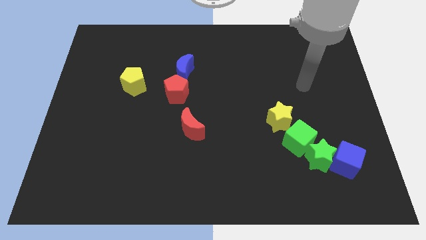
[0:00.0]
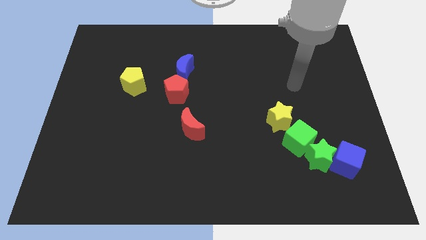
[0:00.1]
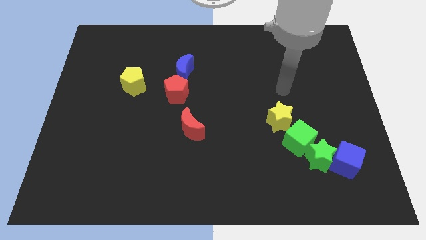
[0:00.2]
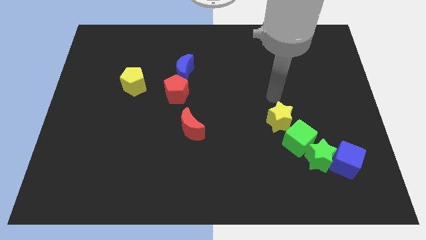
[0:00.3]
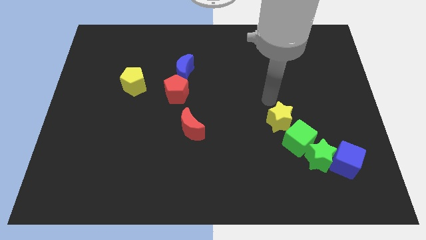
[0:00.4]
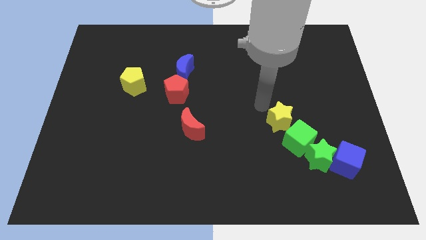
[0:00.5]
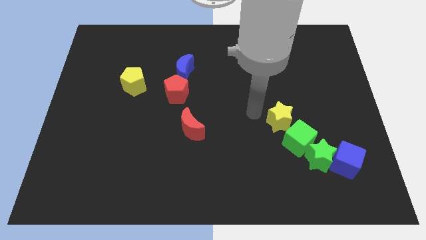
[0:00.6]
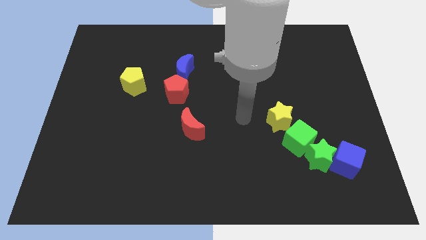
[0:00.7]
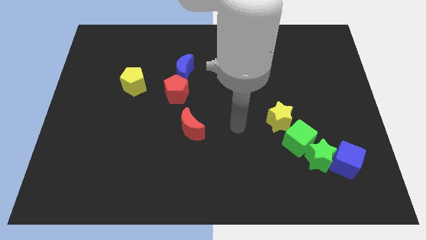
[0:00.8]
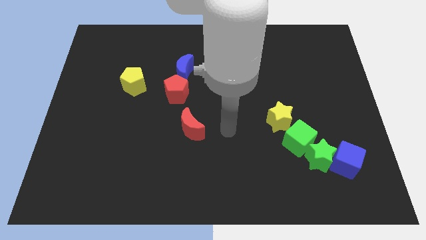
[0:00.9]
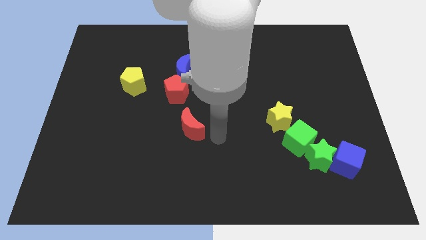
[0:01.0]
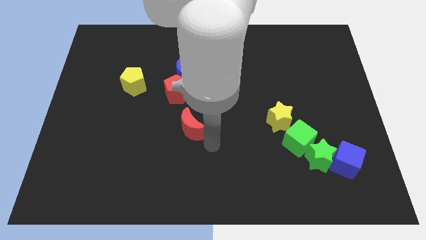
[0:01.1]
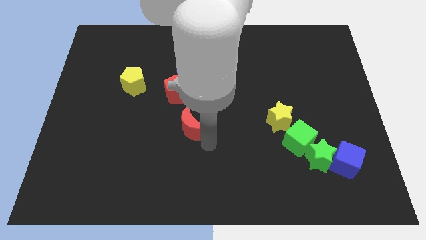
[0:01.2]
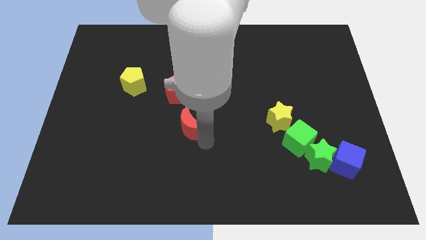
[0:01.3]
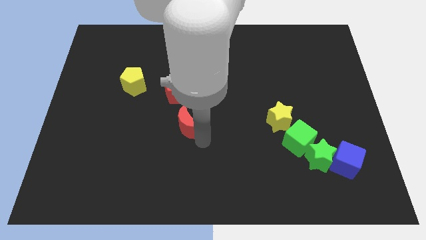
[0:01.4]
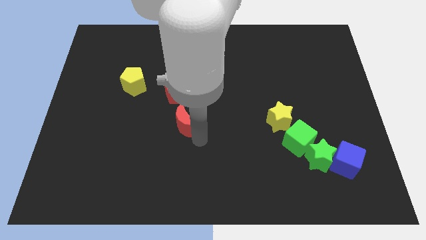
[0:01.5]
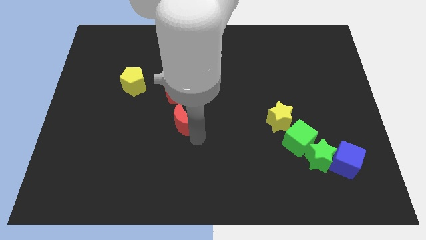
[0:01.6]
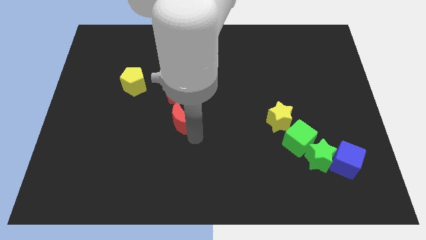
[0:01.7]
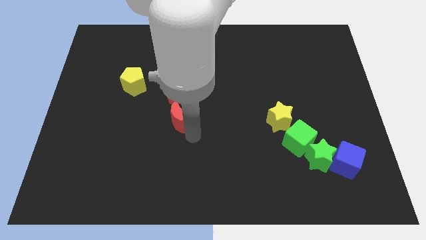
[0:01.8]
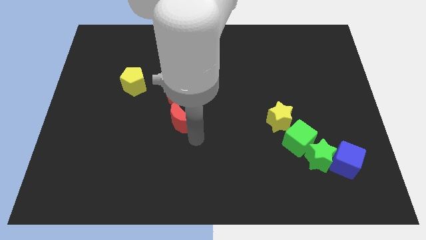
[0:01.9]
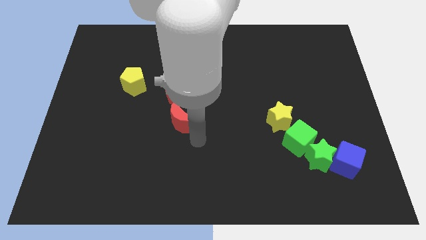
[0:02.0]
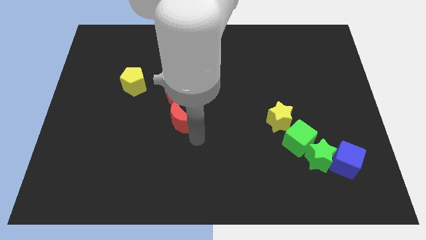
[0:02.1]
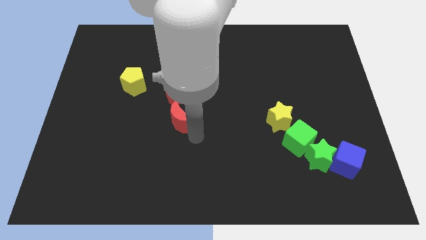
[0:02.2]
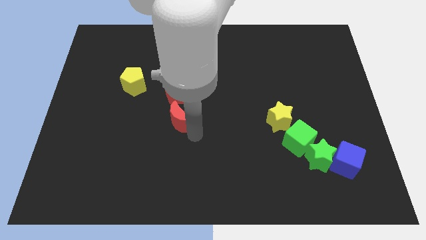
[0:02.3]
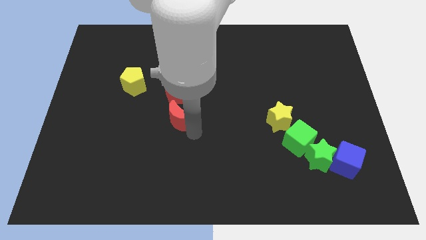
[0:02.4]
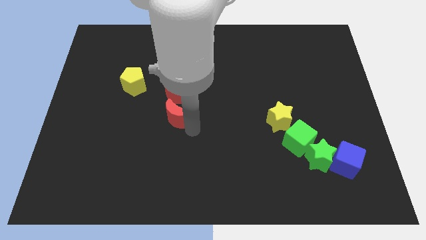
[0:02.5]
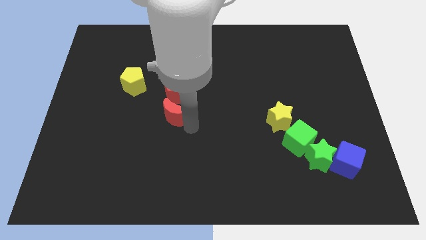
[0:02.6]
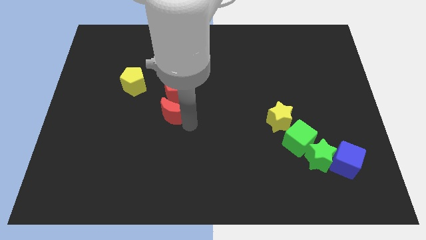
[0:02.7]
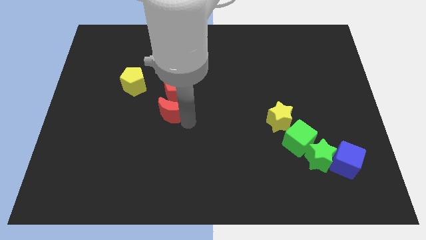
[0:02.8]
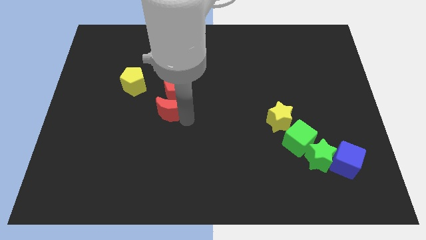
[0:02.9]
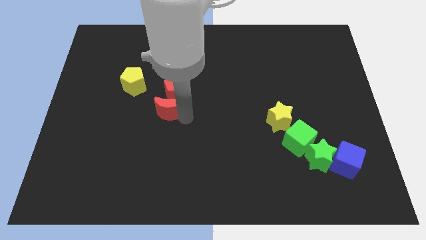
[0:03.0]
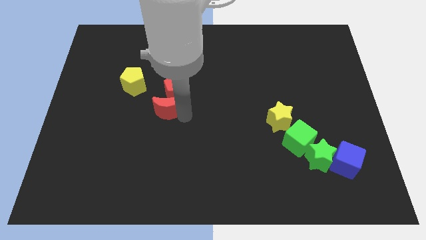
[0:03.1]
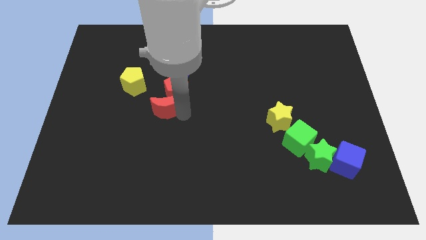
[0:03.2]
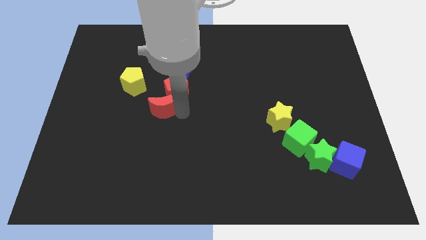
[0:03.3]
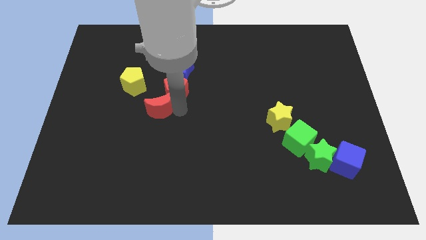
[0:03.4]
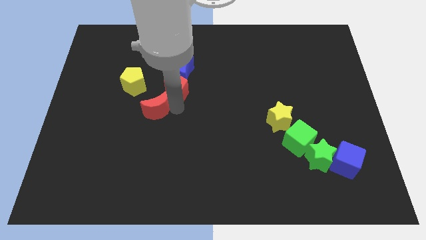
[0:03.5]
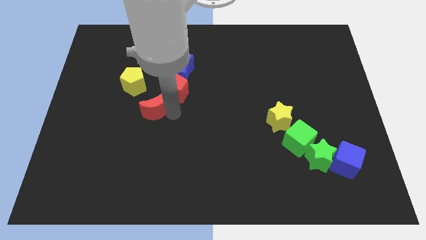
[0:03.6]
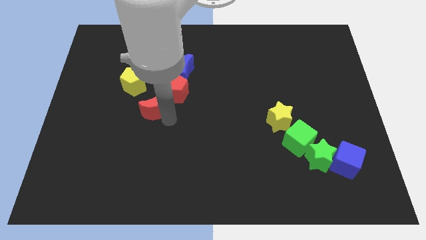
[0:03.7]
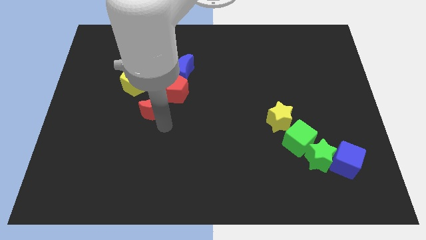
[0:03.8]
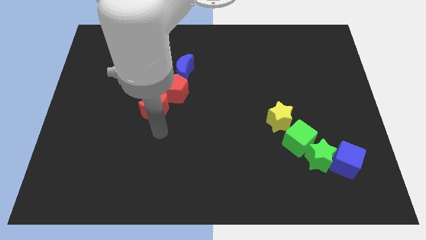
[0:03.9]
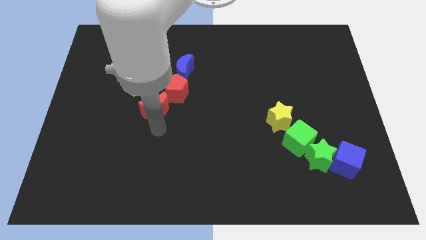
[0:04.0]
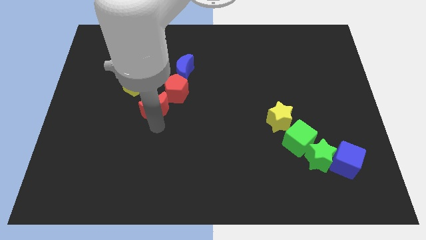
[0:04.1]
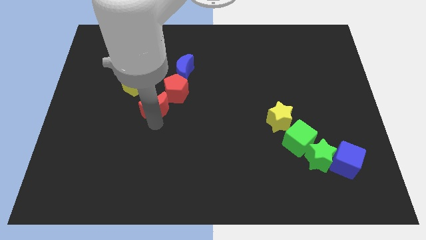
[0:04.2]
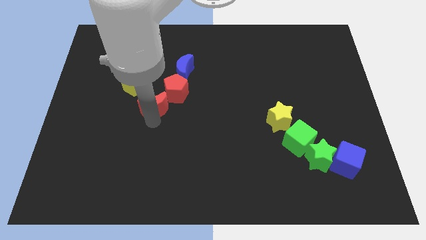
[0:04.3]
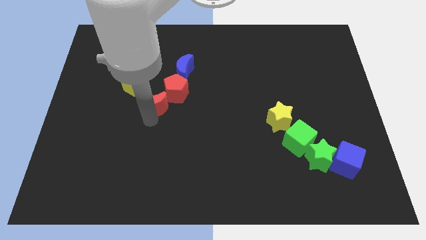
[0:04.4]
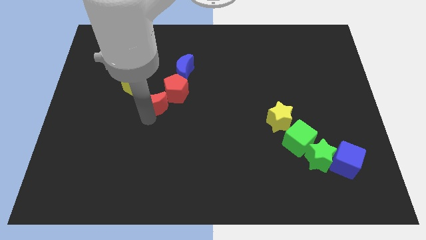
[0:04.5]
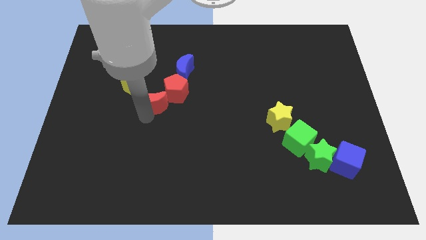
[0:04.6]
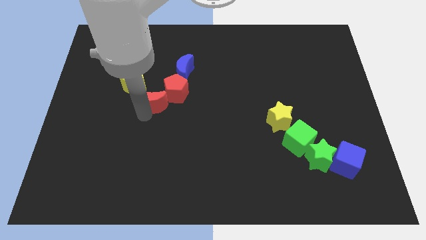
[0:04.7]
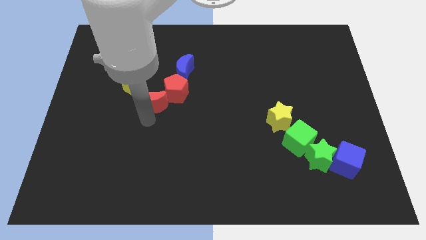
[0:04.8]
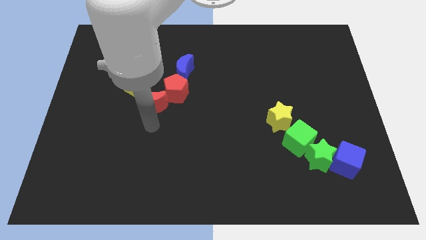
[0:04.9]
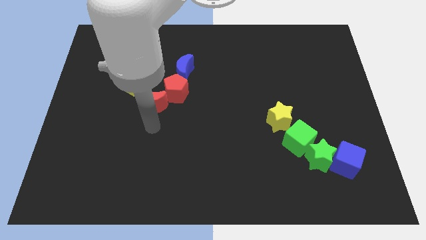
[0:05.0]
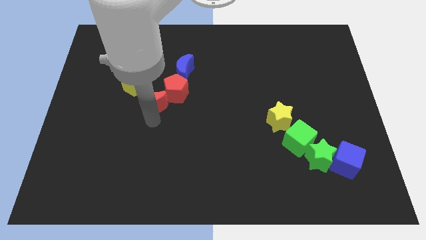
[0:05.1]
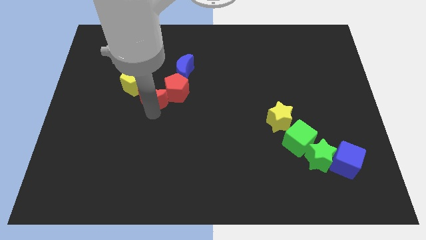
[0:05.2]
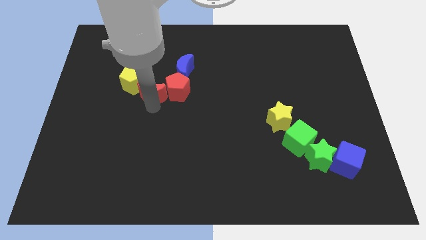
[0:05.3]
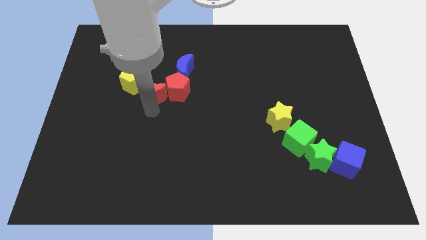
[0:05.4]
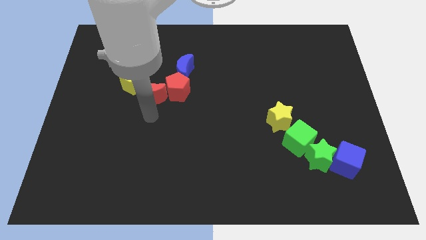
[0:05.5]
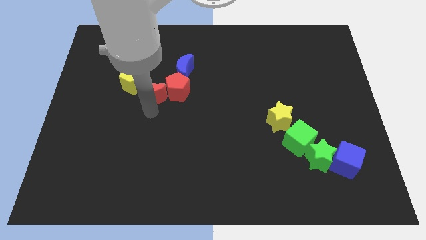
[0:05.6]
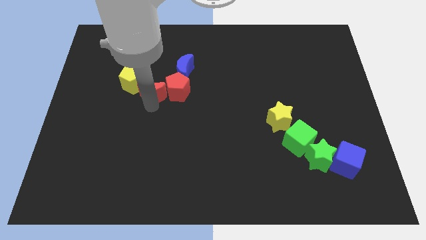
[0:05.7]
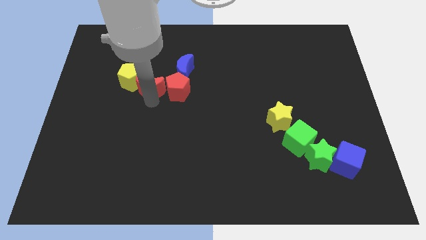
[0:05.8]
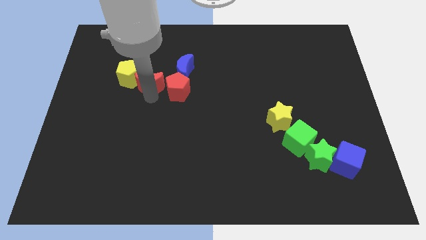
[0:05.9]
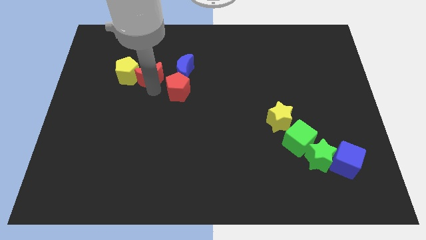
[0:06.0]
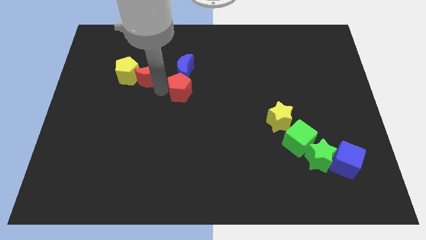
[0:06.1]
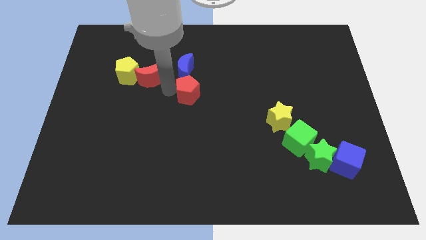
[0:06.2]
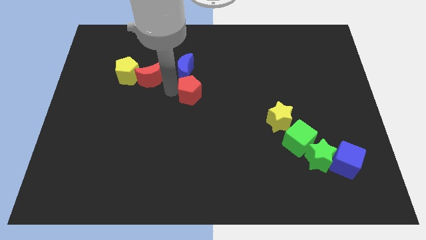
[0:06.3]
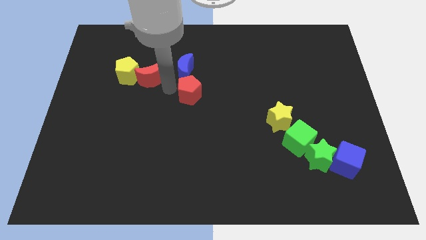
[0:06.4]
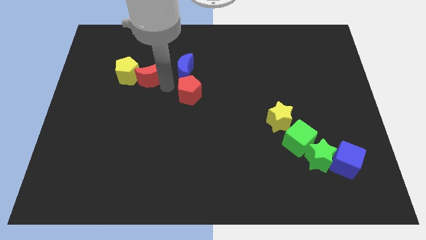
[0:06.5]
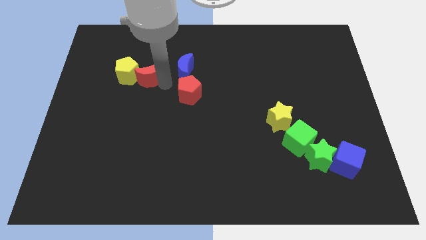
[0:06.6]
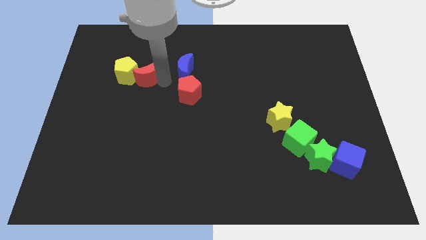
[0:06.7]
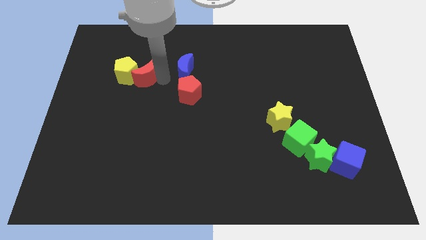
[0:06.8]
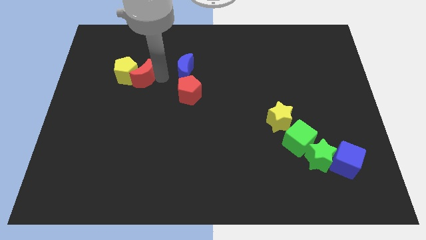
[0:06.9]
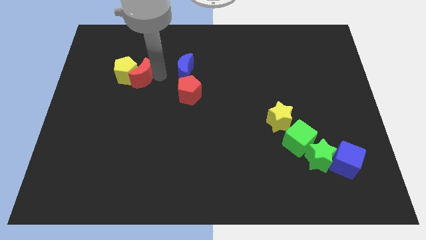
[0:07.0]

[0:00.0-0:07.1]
slide the red moon upwards and then left

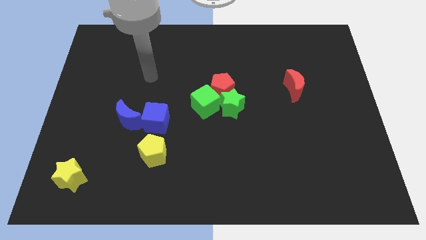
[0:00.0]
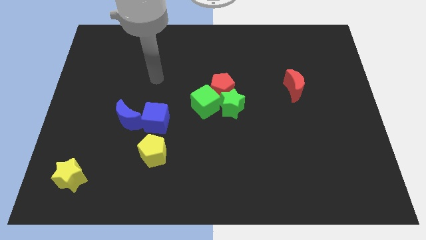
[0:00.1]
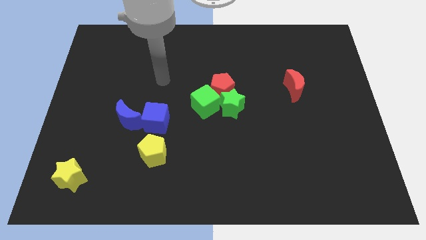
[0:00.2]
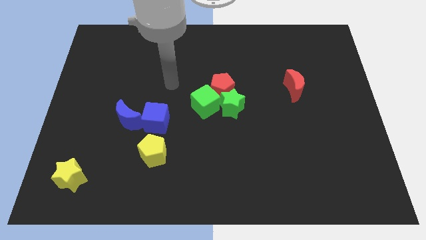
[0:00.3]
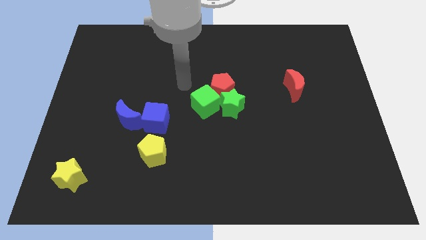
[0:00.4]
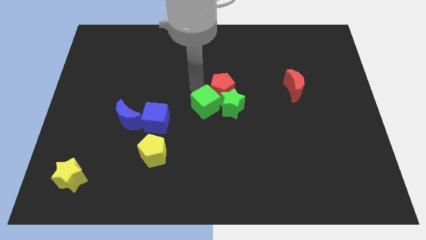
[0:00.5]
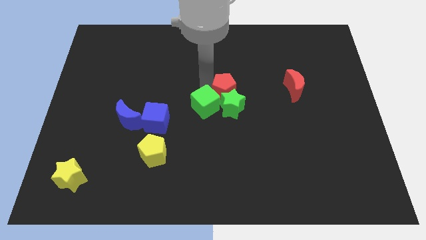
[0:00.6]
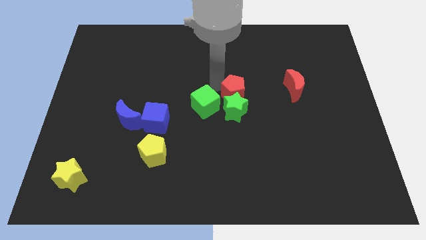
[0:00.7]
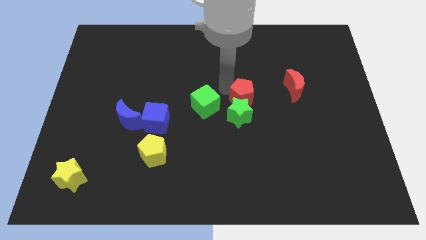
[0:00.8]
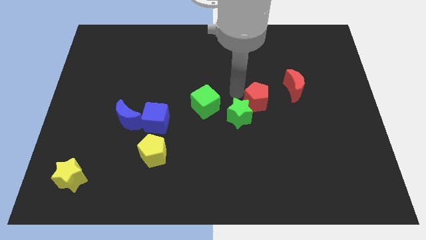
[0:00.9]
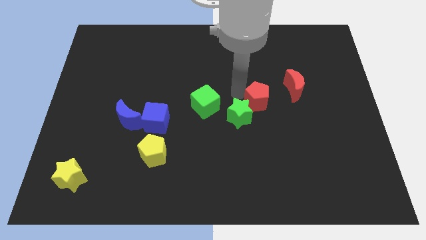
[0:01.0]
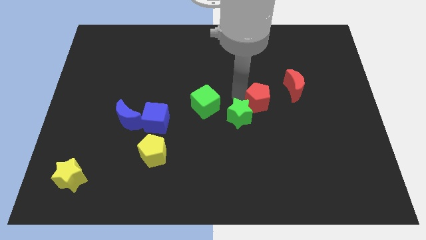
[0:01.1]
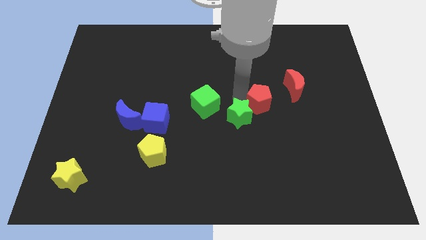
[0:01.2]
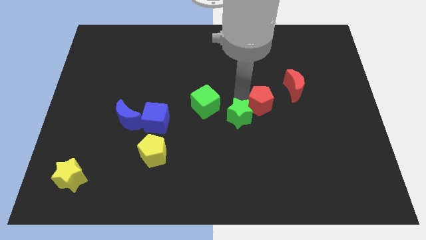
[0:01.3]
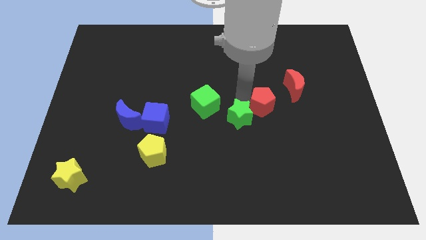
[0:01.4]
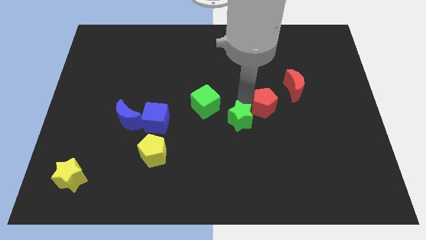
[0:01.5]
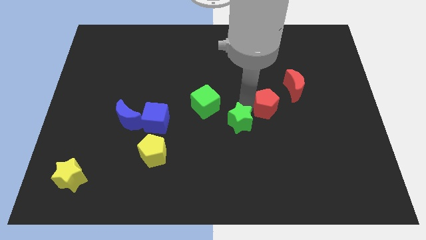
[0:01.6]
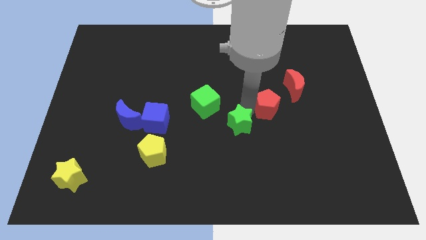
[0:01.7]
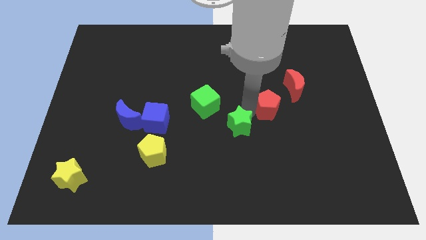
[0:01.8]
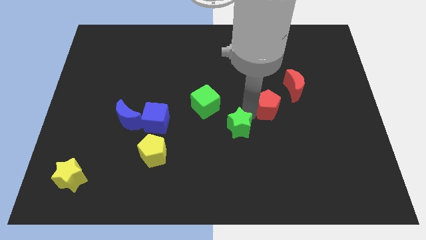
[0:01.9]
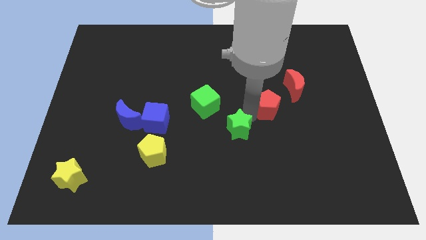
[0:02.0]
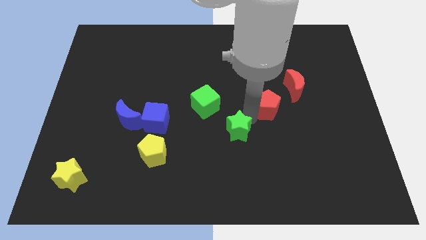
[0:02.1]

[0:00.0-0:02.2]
move the green star down a little bit
